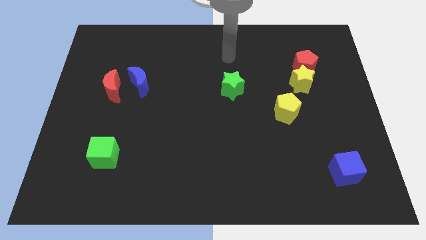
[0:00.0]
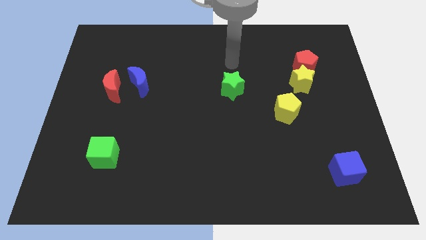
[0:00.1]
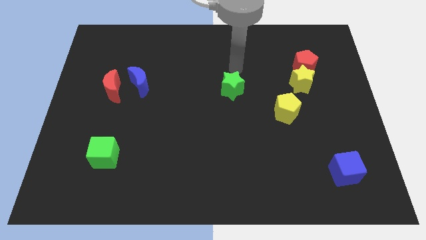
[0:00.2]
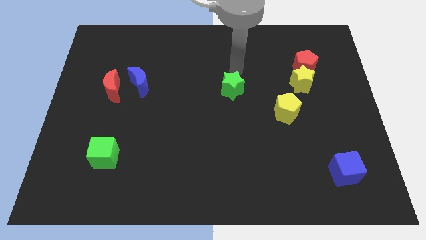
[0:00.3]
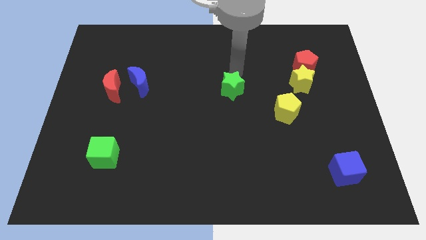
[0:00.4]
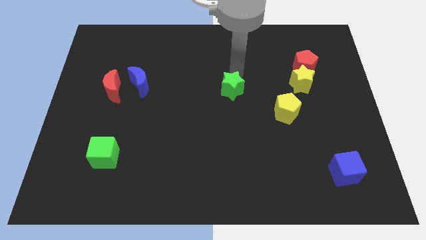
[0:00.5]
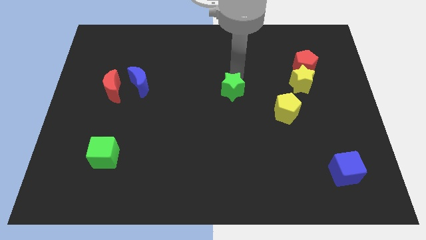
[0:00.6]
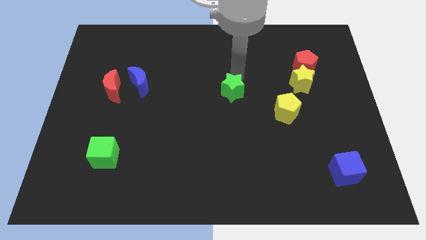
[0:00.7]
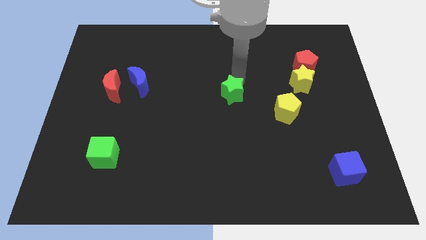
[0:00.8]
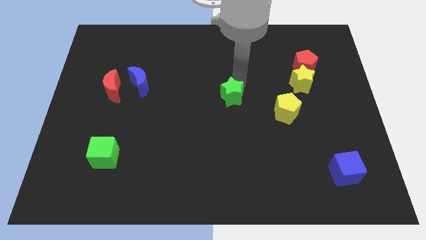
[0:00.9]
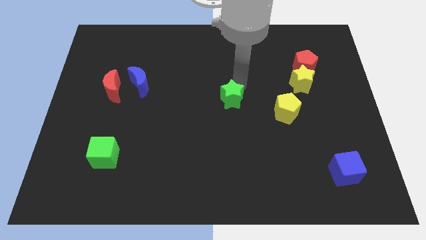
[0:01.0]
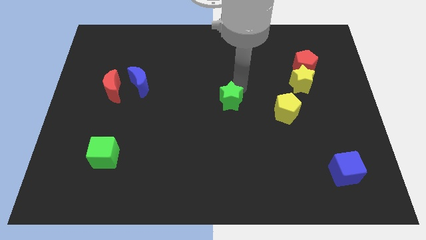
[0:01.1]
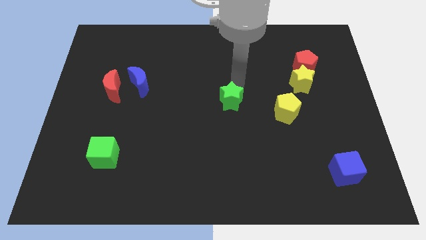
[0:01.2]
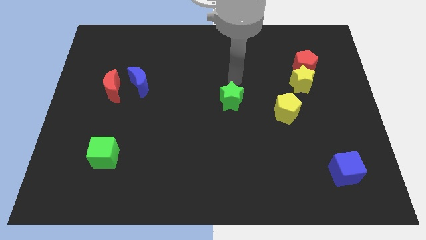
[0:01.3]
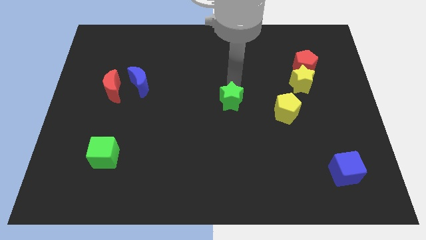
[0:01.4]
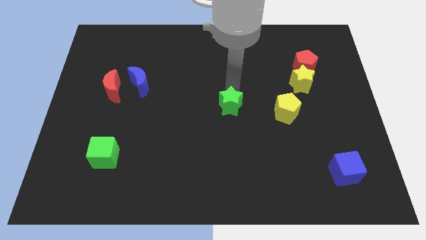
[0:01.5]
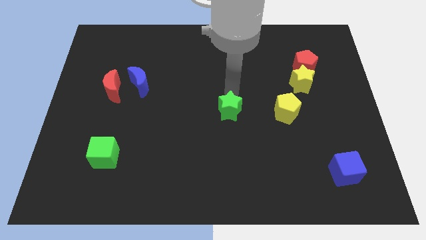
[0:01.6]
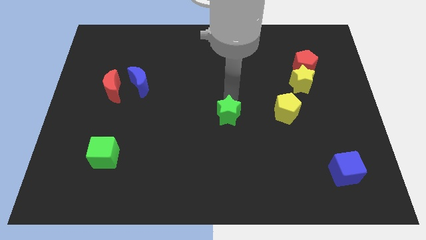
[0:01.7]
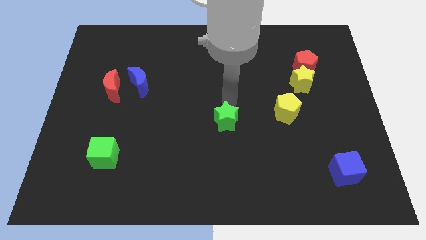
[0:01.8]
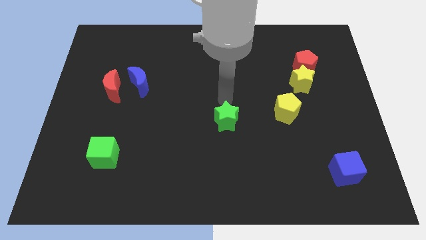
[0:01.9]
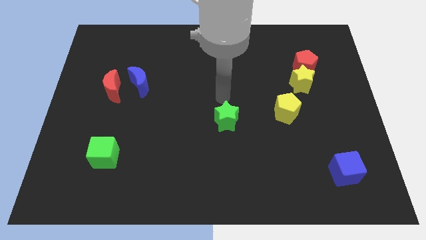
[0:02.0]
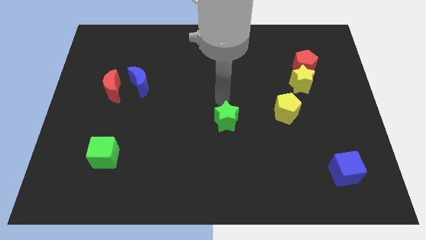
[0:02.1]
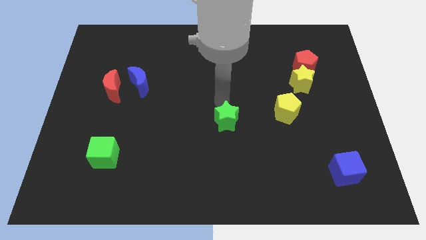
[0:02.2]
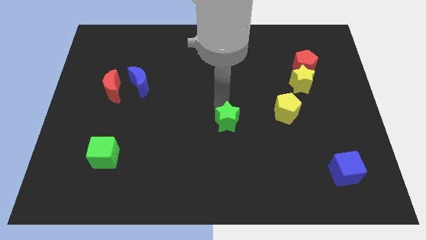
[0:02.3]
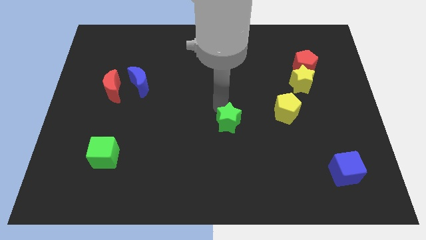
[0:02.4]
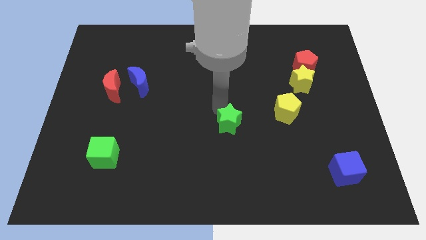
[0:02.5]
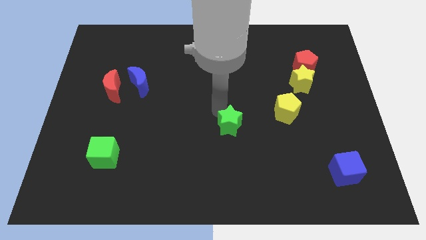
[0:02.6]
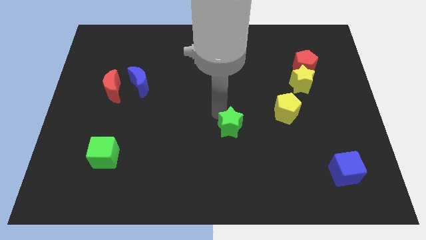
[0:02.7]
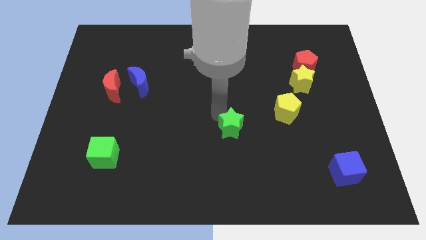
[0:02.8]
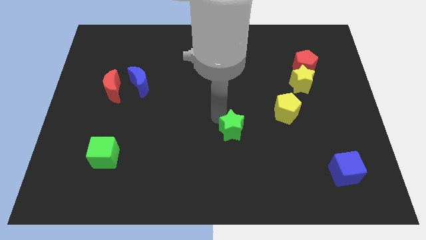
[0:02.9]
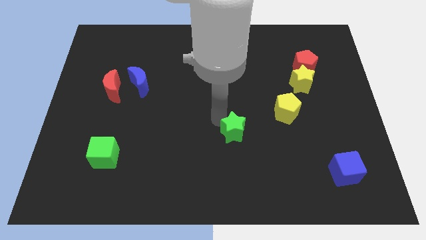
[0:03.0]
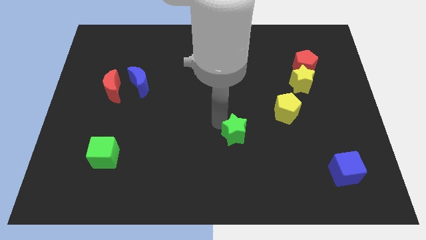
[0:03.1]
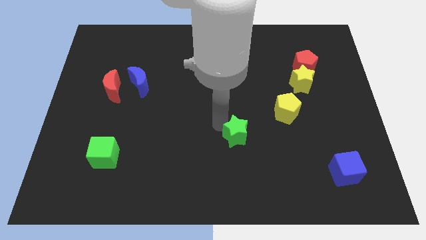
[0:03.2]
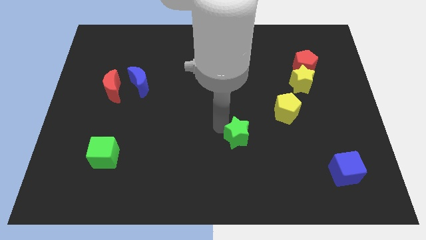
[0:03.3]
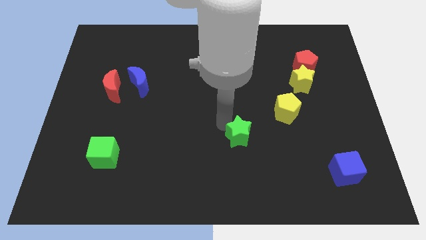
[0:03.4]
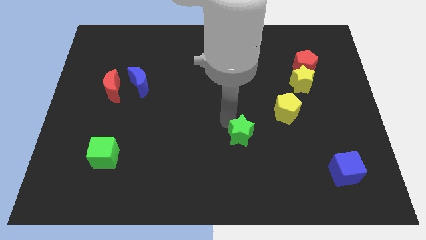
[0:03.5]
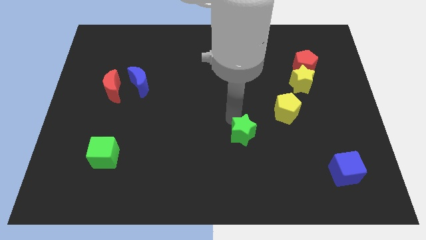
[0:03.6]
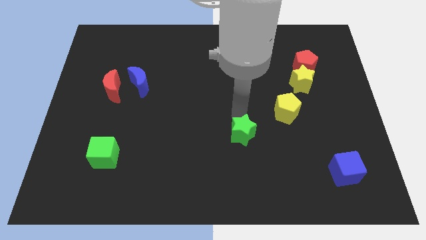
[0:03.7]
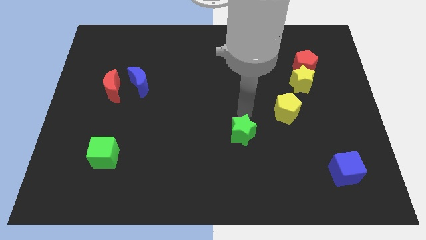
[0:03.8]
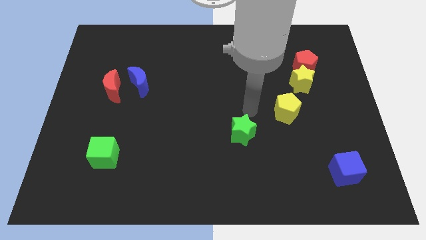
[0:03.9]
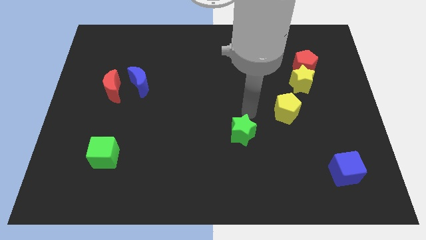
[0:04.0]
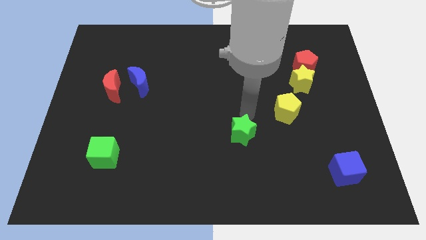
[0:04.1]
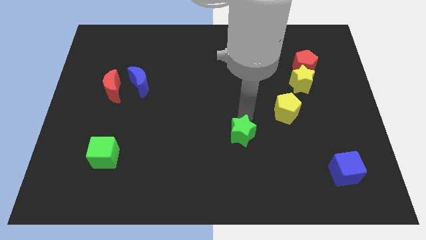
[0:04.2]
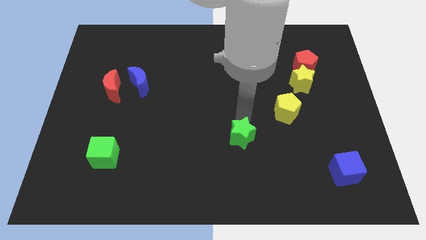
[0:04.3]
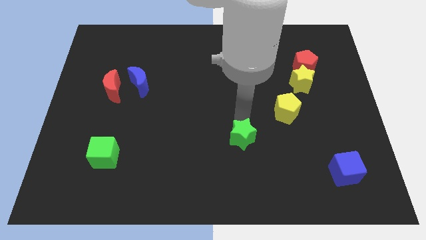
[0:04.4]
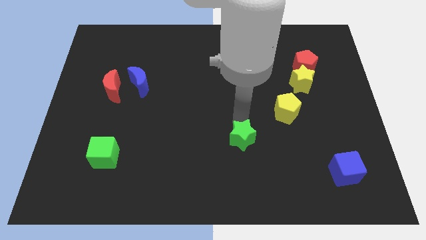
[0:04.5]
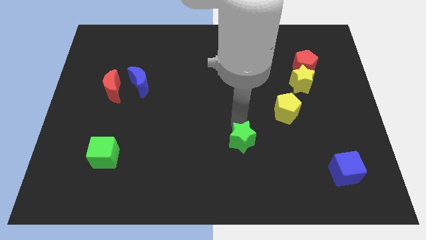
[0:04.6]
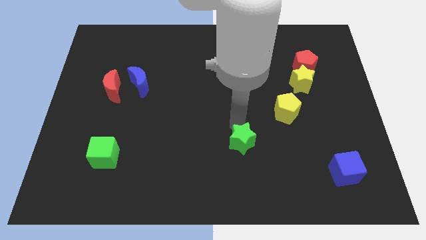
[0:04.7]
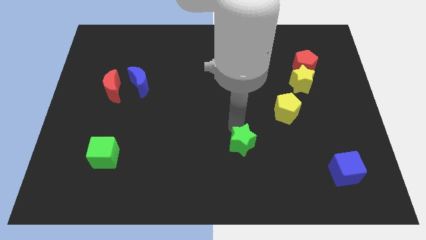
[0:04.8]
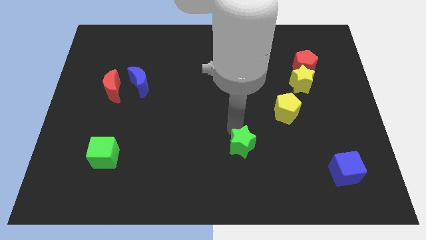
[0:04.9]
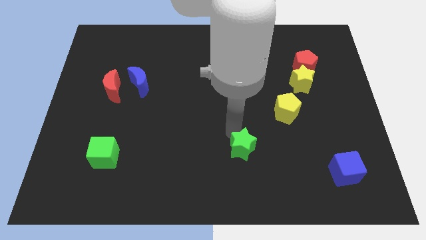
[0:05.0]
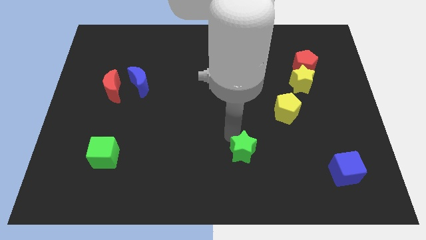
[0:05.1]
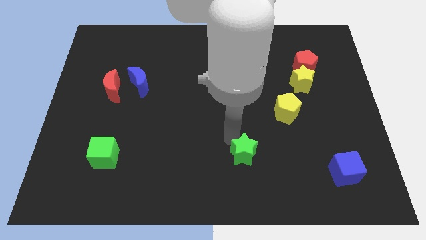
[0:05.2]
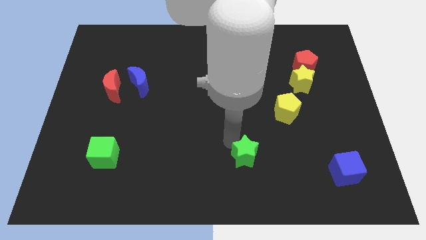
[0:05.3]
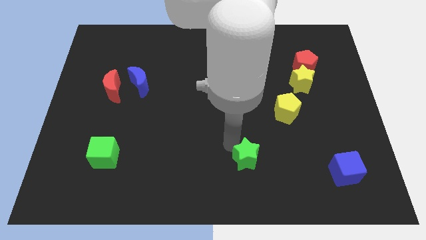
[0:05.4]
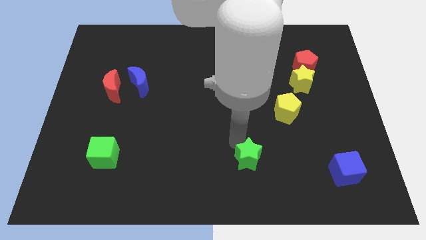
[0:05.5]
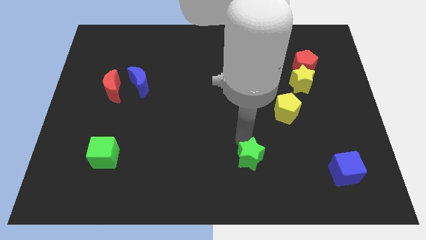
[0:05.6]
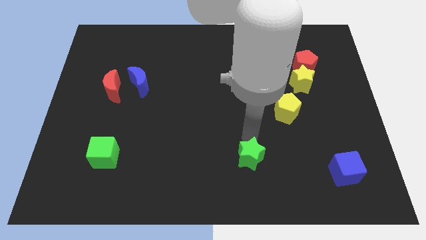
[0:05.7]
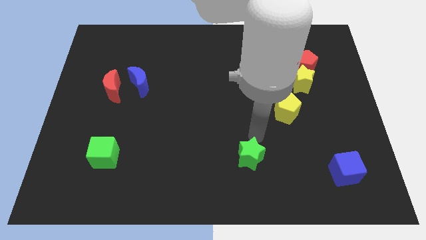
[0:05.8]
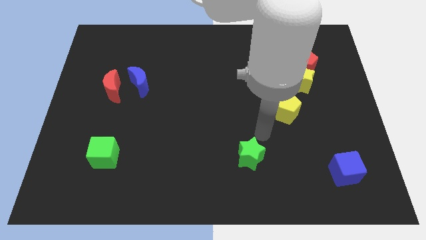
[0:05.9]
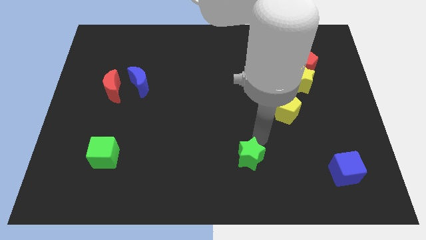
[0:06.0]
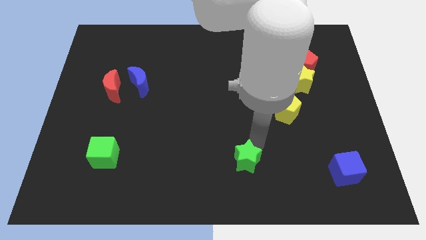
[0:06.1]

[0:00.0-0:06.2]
put the green star to the bottom
